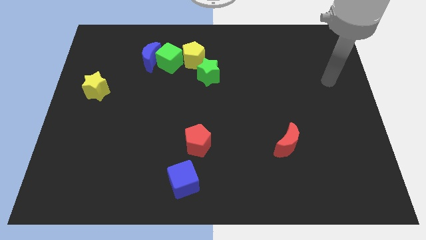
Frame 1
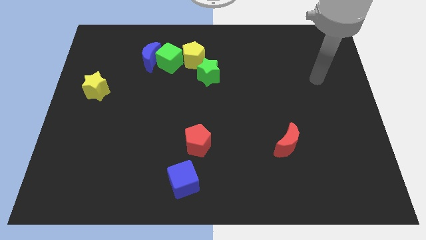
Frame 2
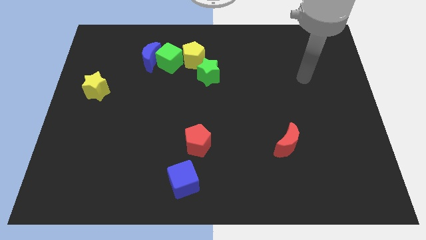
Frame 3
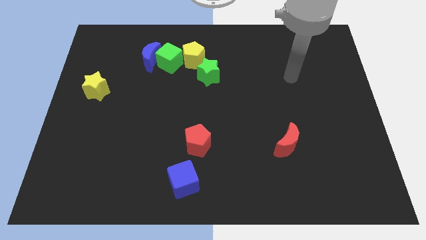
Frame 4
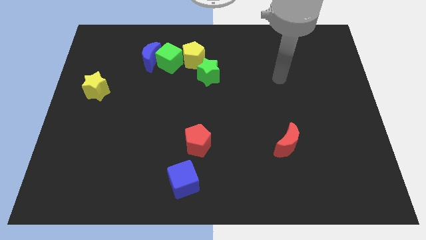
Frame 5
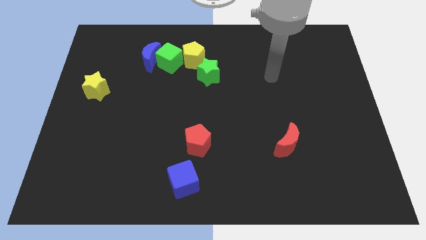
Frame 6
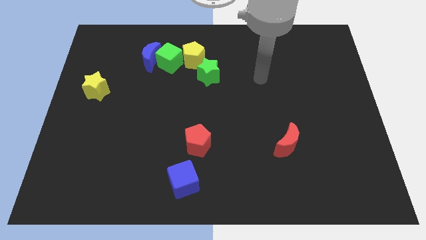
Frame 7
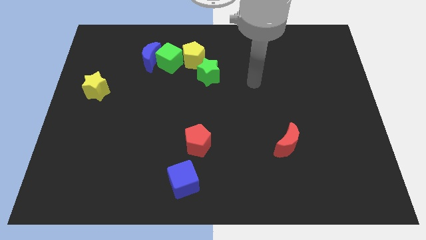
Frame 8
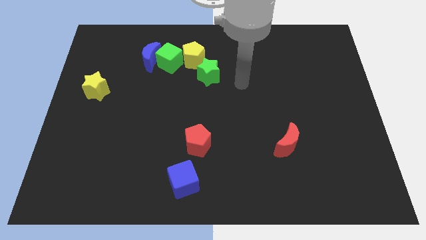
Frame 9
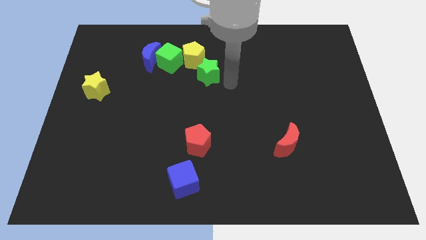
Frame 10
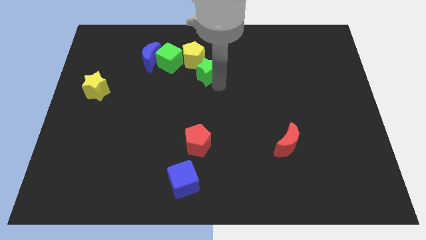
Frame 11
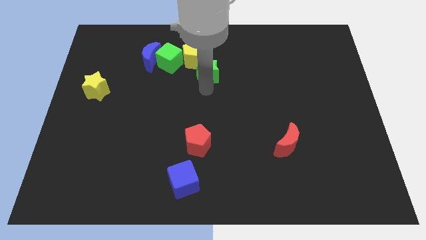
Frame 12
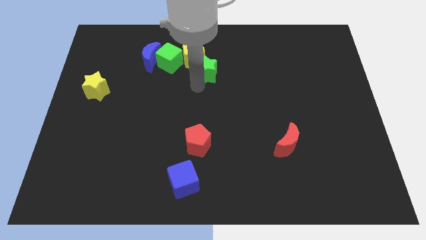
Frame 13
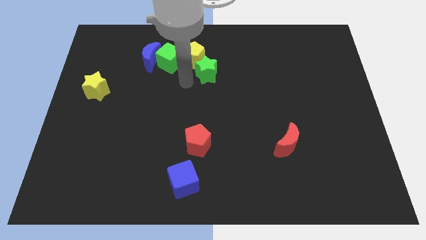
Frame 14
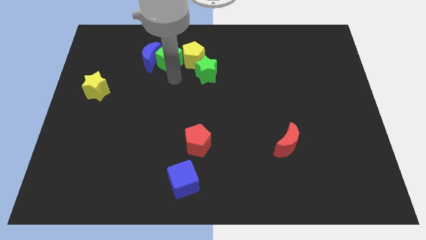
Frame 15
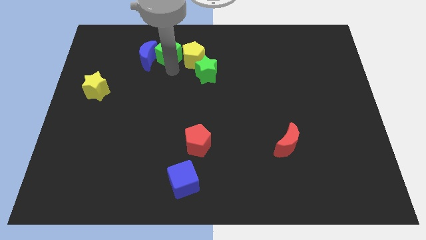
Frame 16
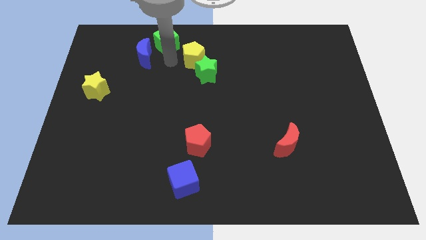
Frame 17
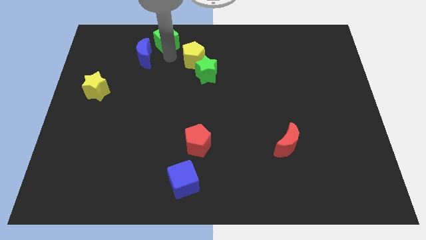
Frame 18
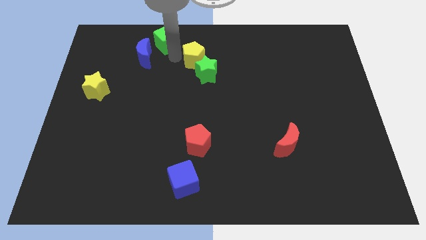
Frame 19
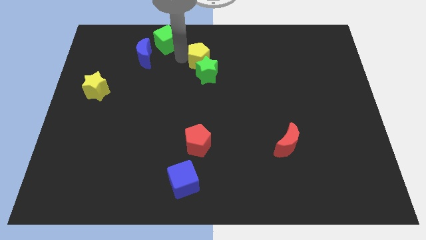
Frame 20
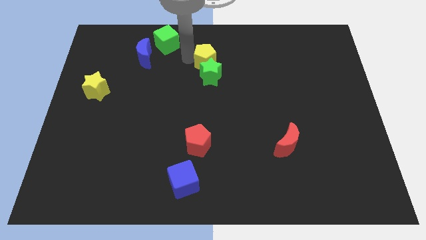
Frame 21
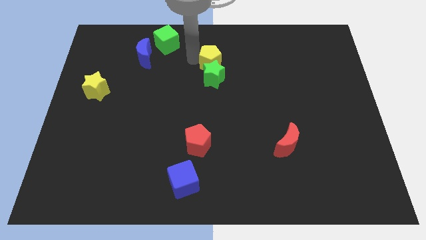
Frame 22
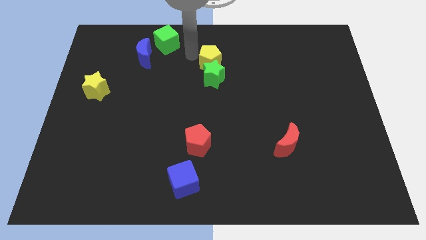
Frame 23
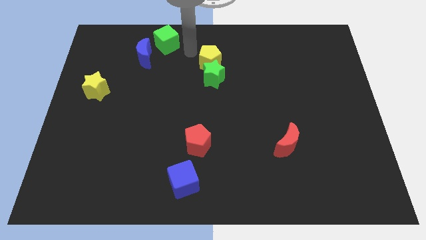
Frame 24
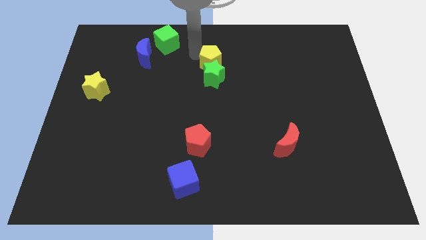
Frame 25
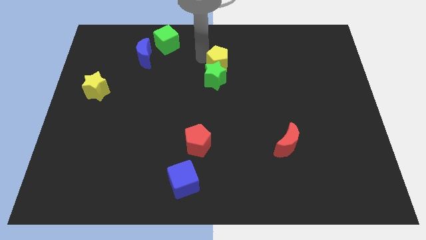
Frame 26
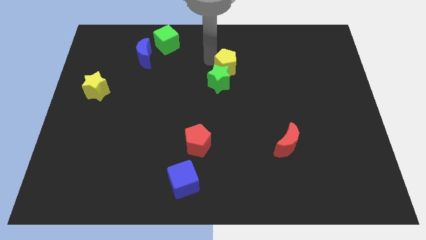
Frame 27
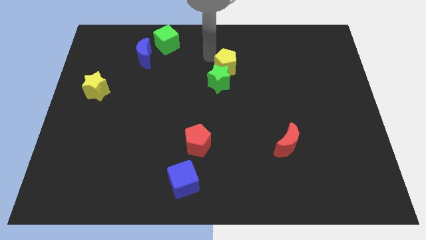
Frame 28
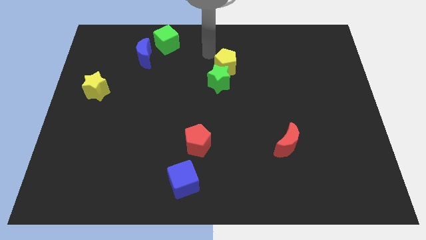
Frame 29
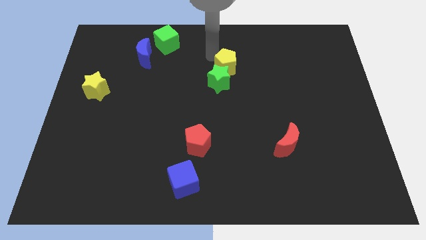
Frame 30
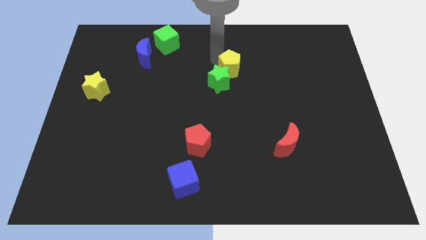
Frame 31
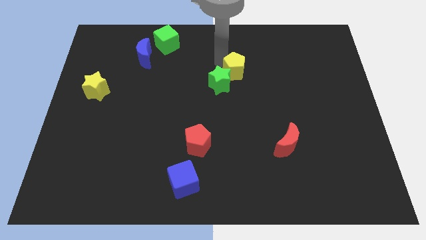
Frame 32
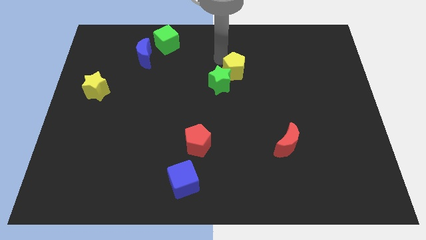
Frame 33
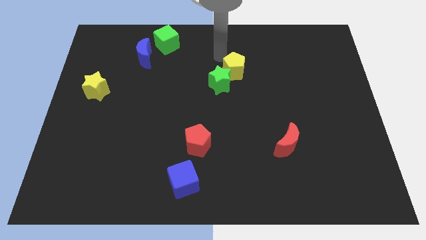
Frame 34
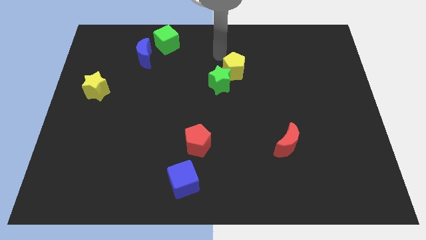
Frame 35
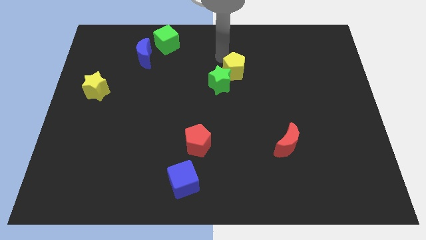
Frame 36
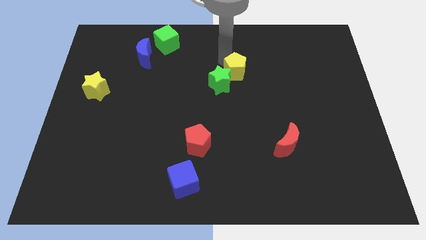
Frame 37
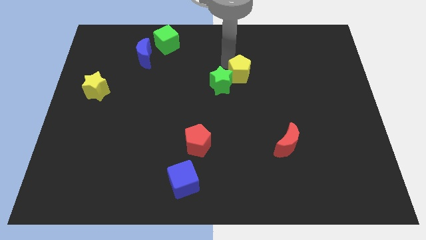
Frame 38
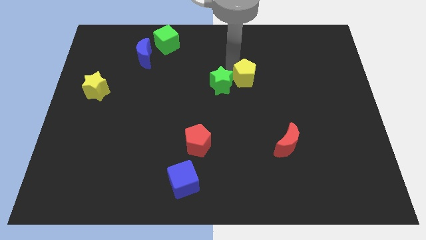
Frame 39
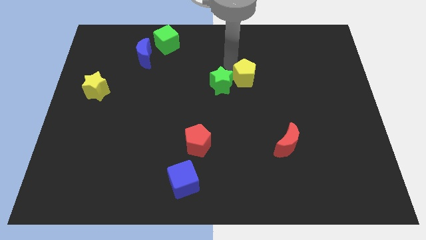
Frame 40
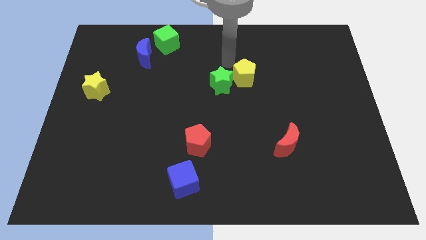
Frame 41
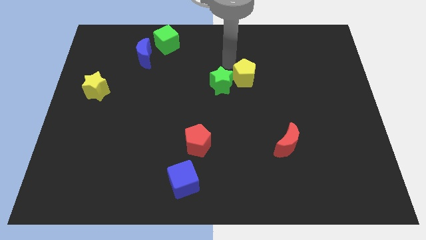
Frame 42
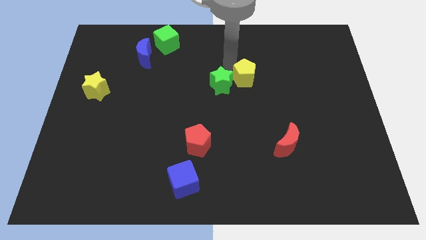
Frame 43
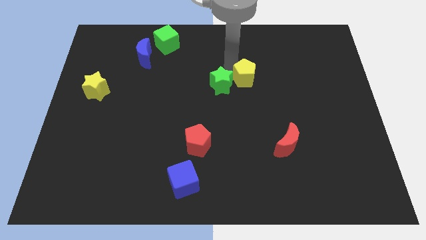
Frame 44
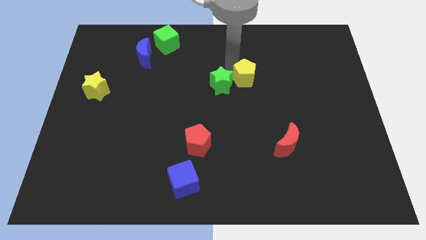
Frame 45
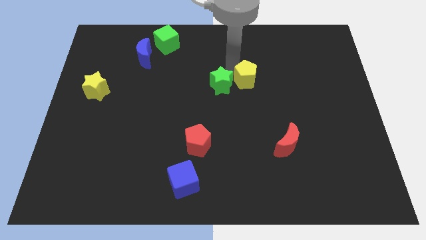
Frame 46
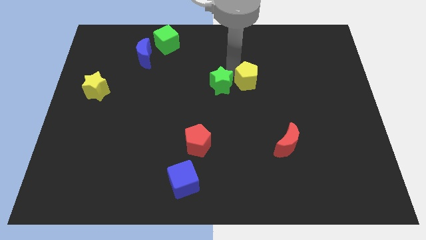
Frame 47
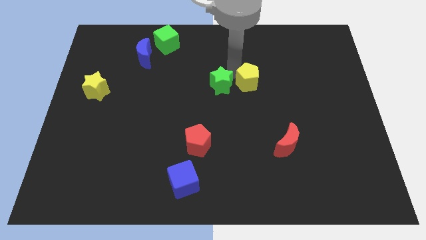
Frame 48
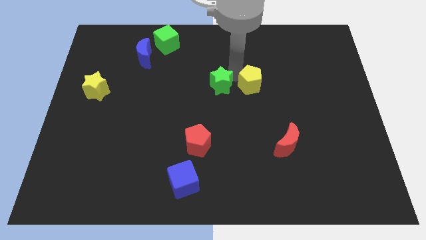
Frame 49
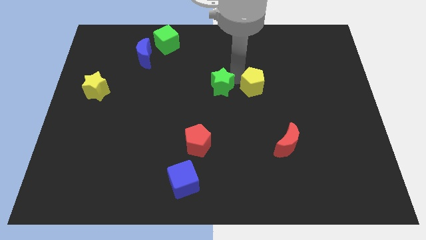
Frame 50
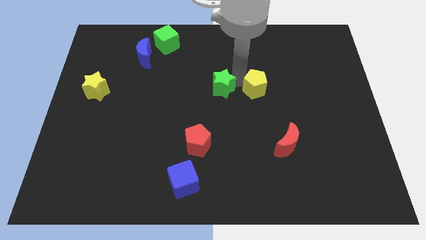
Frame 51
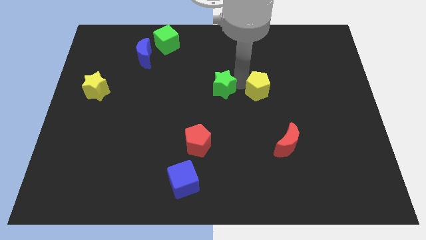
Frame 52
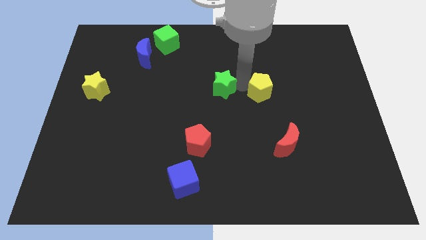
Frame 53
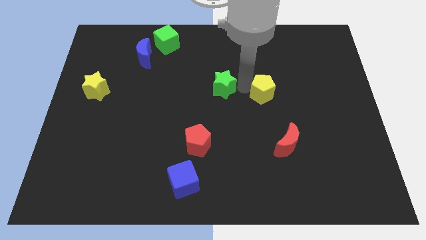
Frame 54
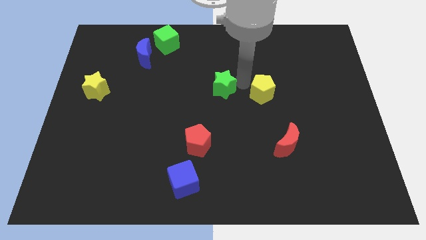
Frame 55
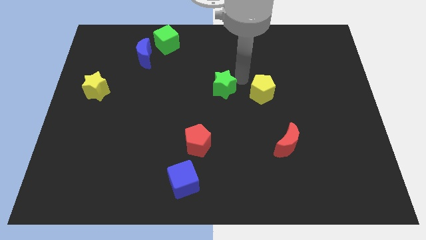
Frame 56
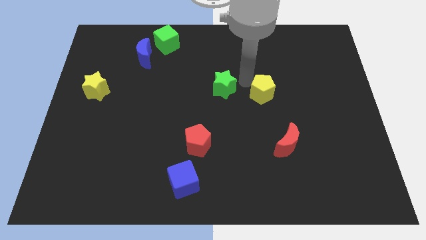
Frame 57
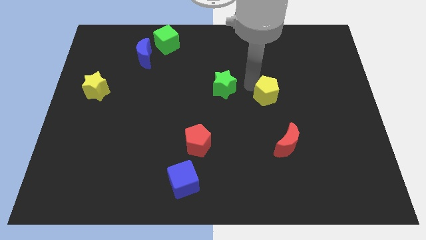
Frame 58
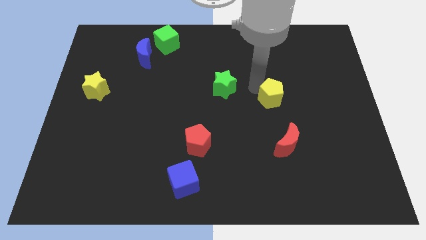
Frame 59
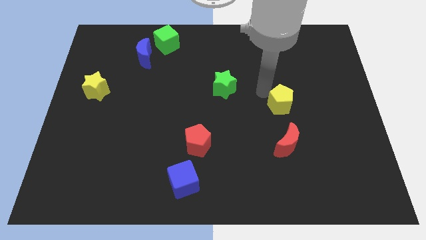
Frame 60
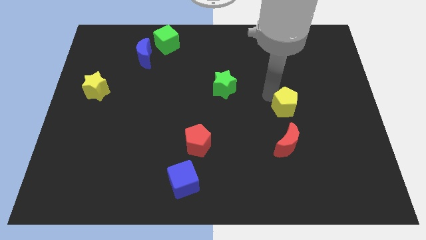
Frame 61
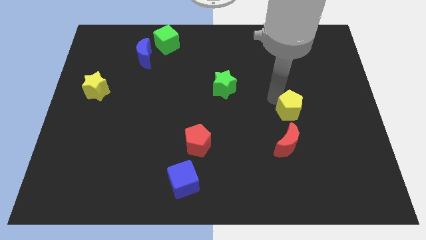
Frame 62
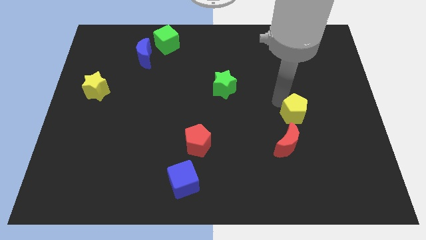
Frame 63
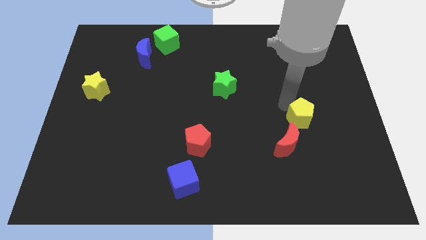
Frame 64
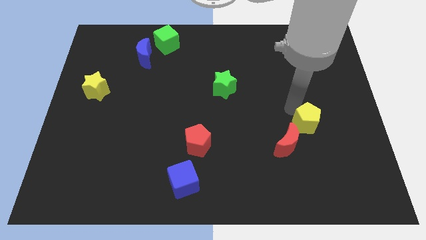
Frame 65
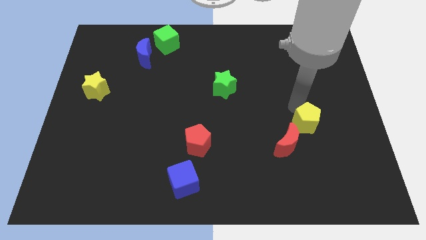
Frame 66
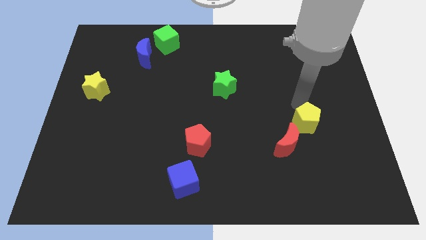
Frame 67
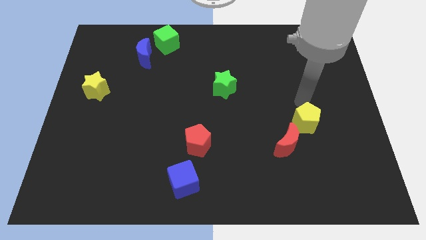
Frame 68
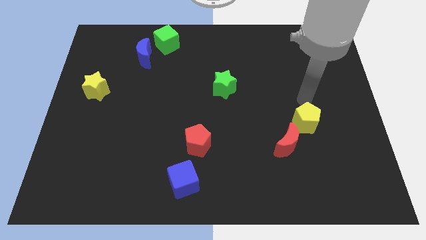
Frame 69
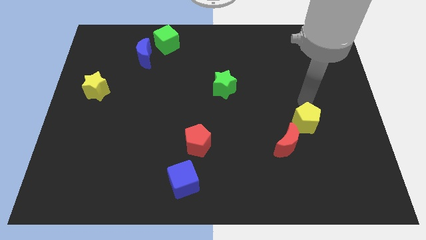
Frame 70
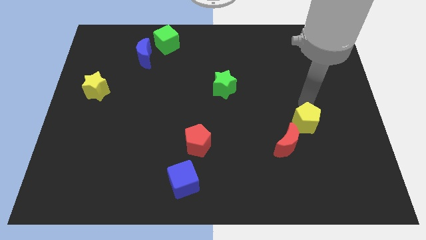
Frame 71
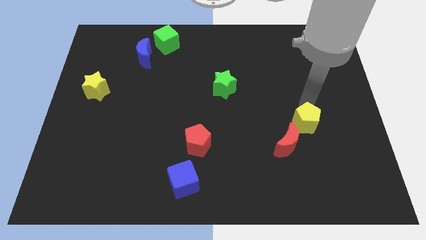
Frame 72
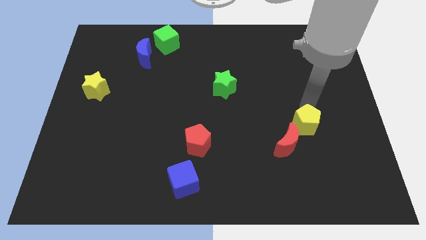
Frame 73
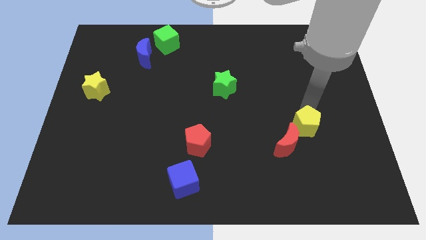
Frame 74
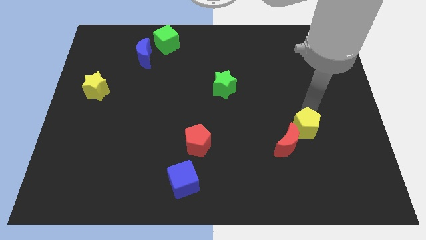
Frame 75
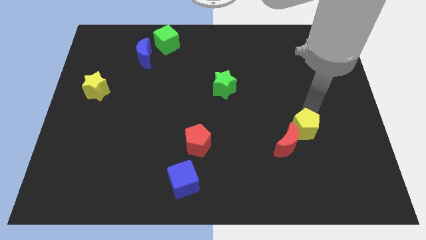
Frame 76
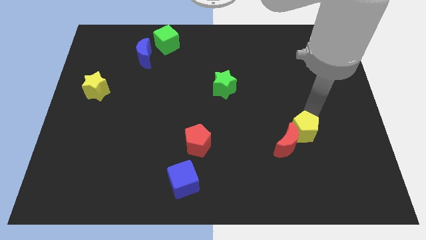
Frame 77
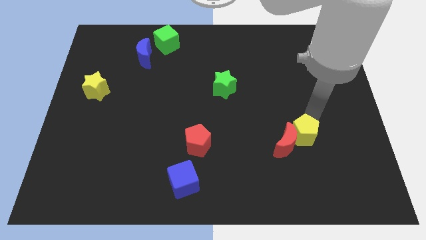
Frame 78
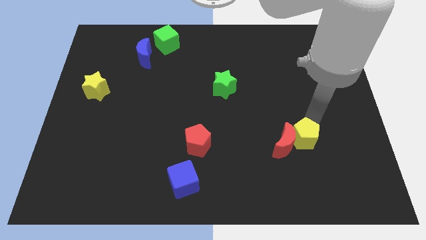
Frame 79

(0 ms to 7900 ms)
put the yellow pentagon to the bottom right of the red moon
